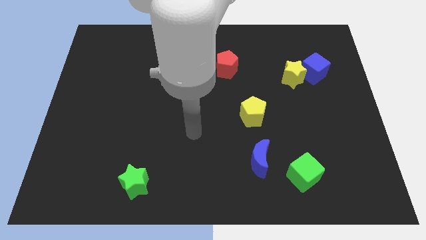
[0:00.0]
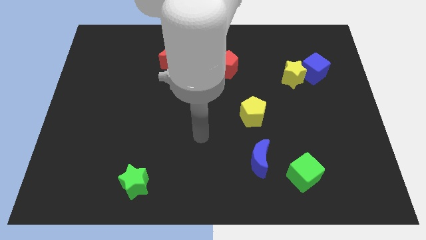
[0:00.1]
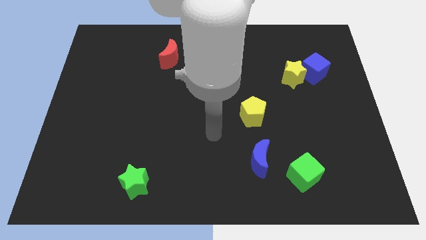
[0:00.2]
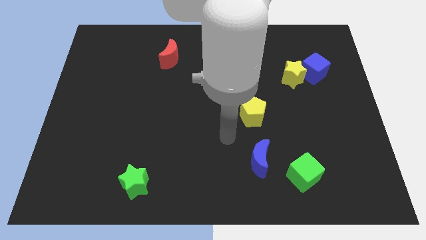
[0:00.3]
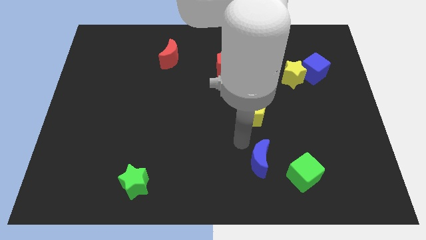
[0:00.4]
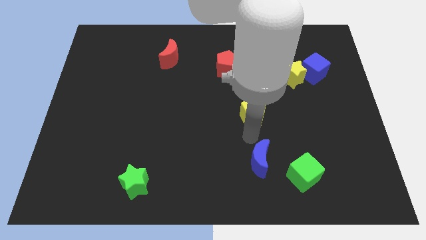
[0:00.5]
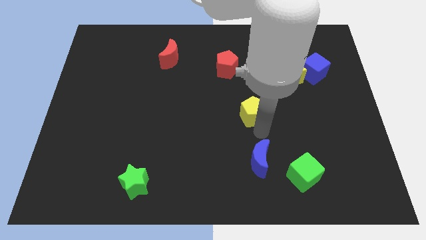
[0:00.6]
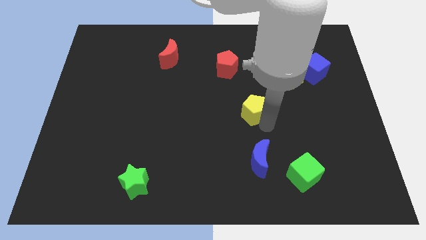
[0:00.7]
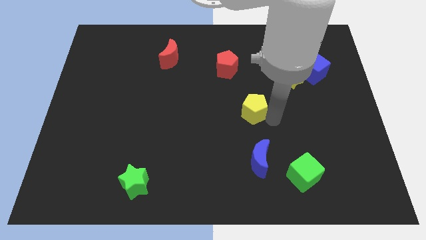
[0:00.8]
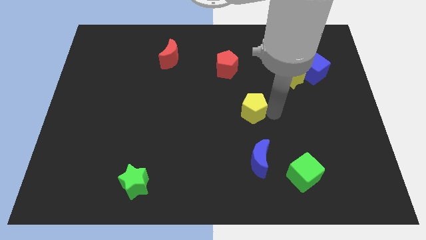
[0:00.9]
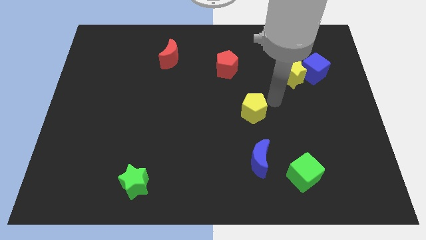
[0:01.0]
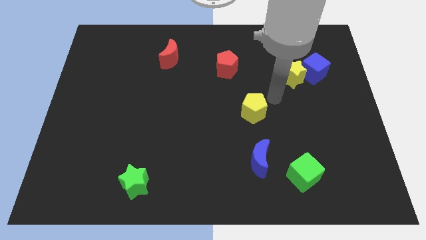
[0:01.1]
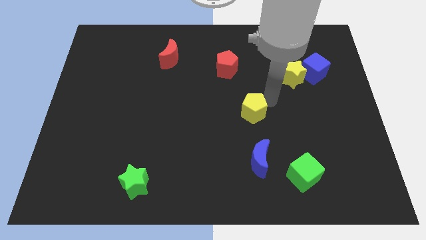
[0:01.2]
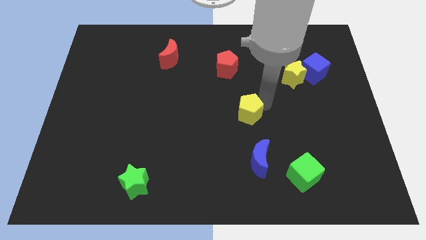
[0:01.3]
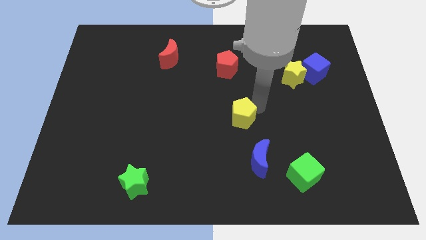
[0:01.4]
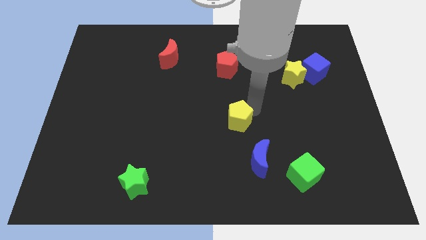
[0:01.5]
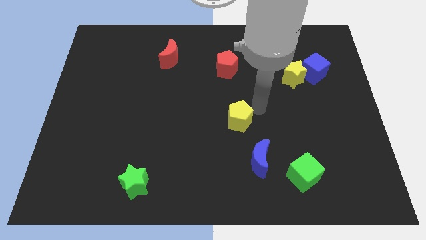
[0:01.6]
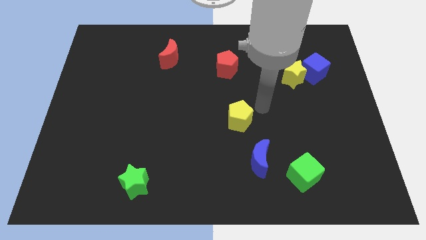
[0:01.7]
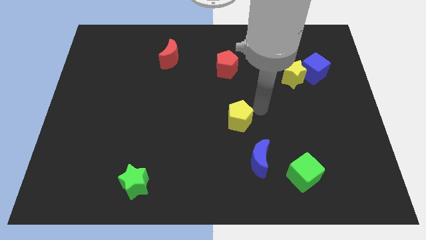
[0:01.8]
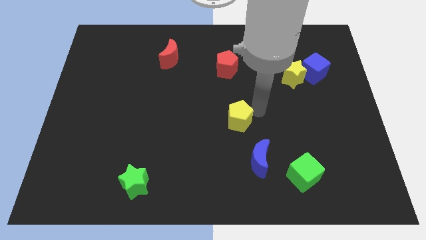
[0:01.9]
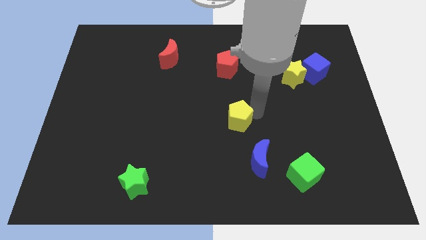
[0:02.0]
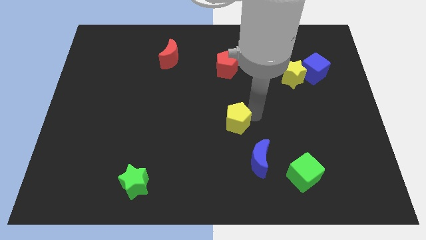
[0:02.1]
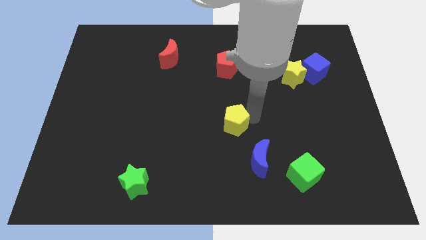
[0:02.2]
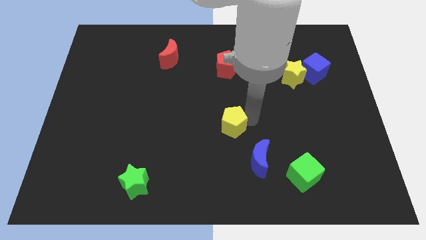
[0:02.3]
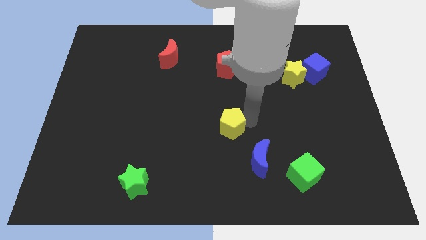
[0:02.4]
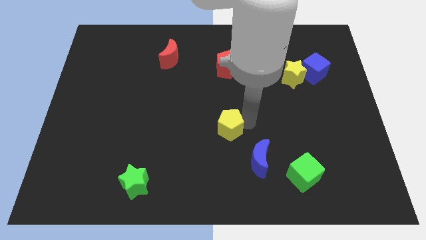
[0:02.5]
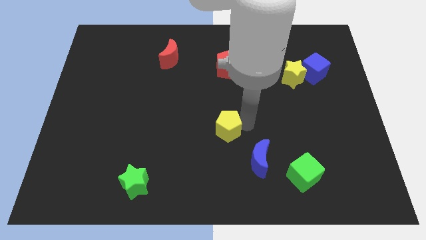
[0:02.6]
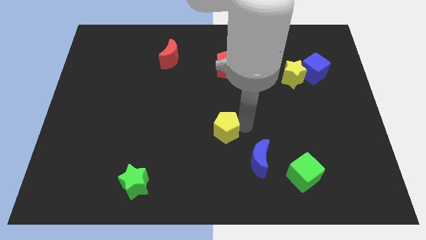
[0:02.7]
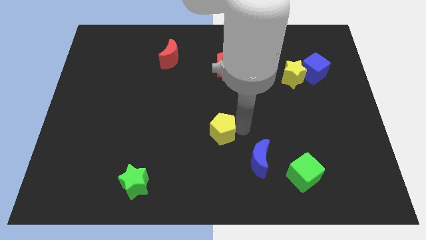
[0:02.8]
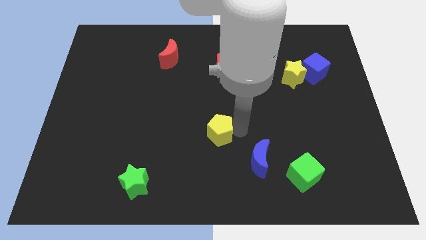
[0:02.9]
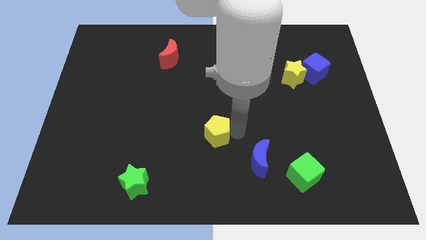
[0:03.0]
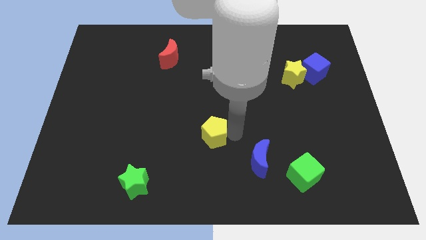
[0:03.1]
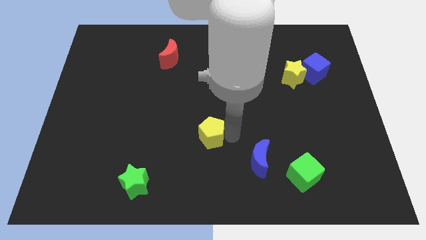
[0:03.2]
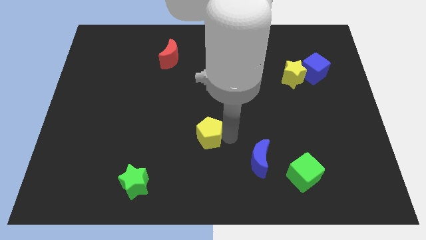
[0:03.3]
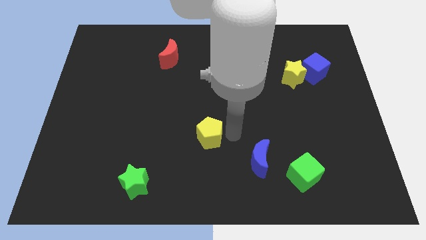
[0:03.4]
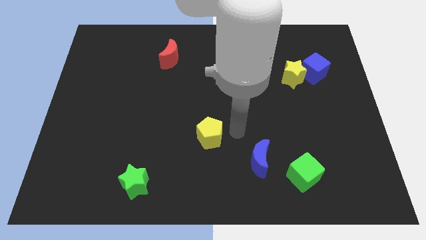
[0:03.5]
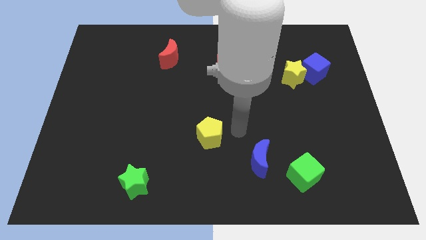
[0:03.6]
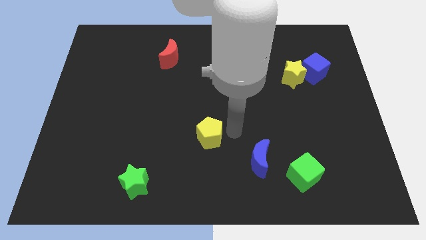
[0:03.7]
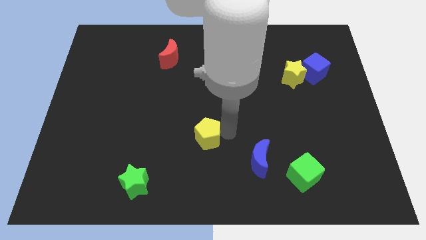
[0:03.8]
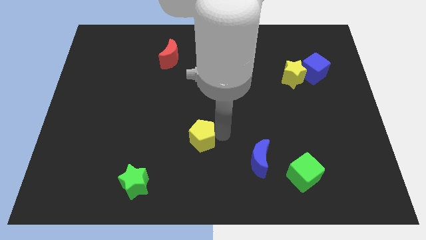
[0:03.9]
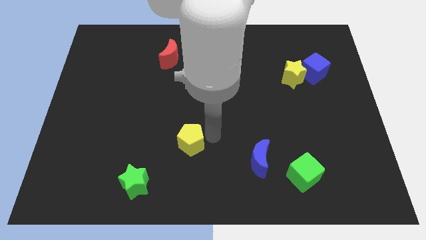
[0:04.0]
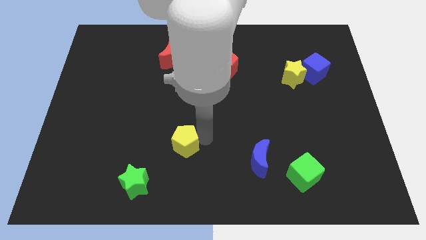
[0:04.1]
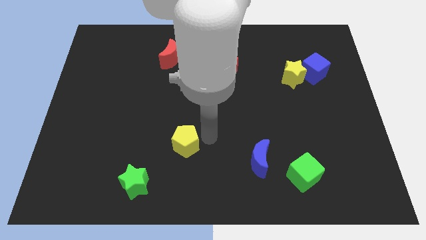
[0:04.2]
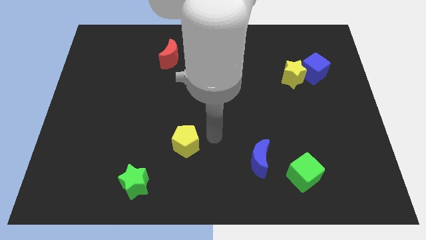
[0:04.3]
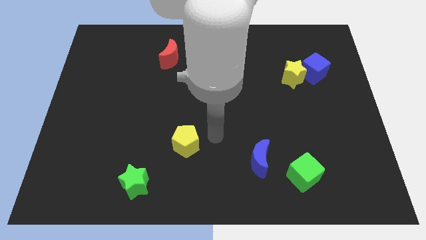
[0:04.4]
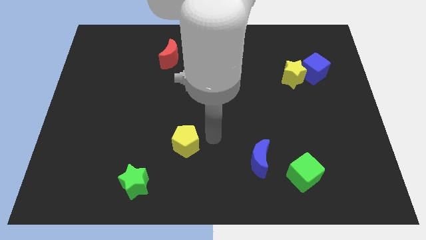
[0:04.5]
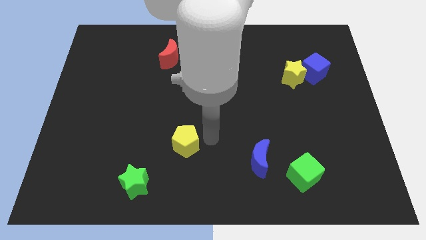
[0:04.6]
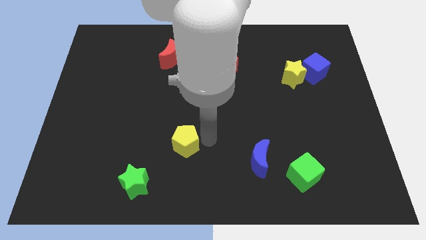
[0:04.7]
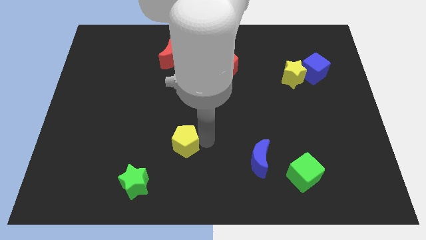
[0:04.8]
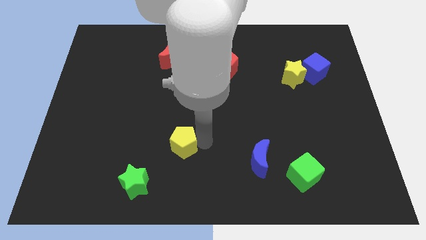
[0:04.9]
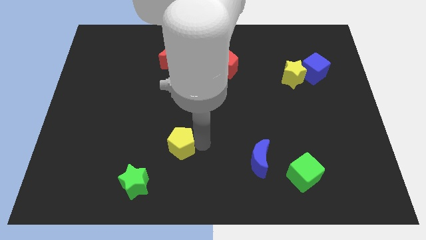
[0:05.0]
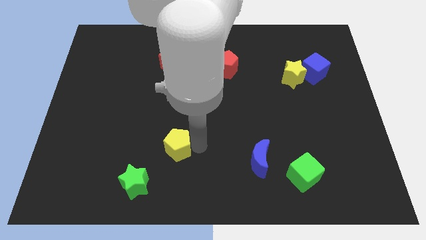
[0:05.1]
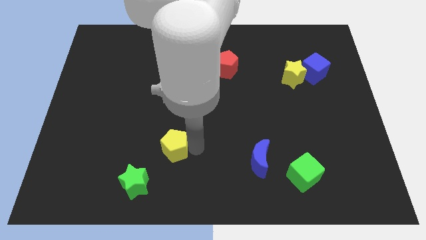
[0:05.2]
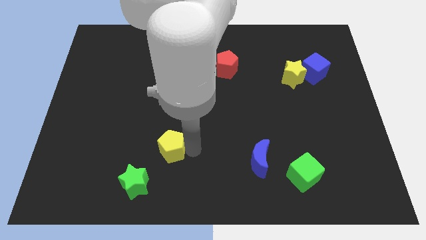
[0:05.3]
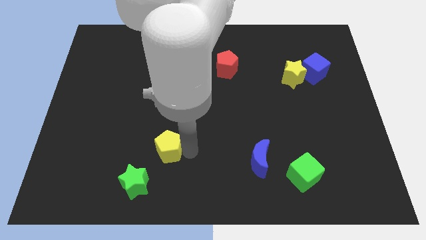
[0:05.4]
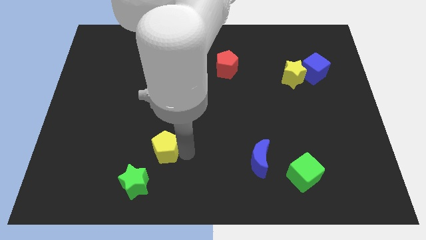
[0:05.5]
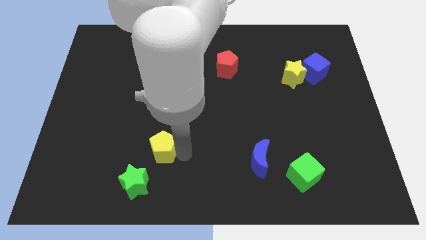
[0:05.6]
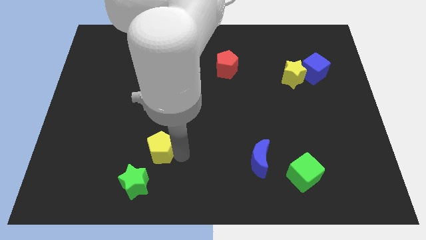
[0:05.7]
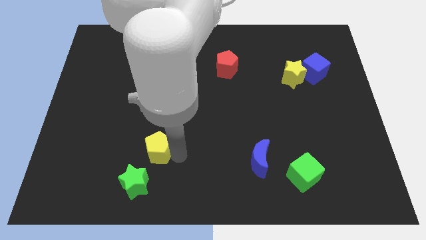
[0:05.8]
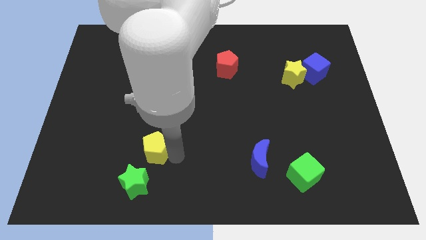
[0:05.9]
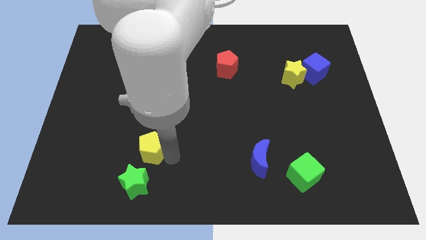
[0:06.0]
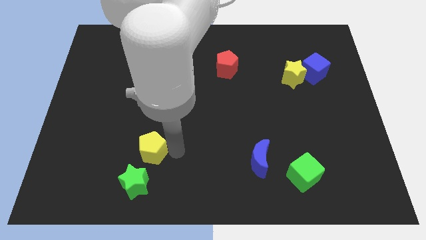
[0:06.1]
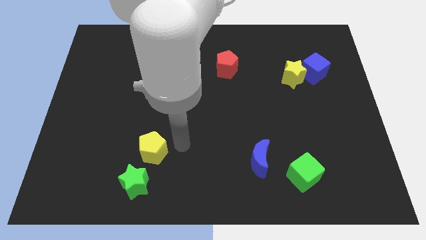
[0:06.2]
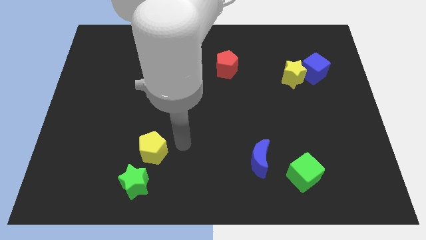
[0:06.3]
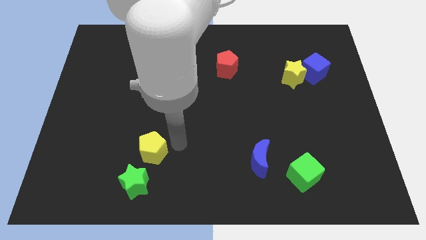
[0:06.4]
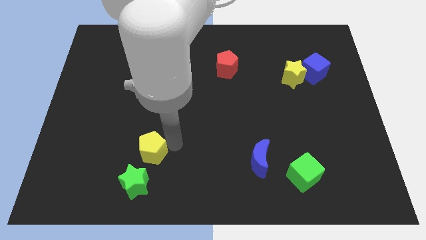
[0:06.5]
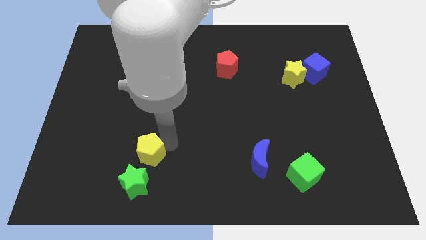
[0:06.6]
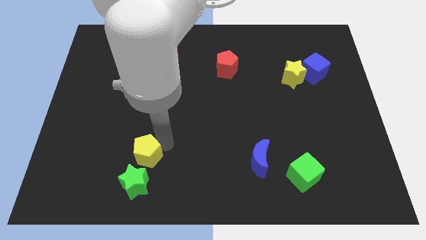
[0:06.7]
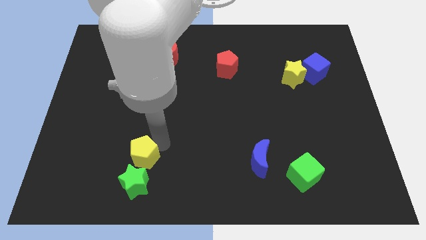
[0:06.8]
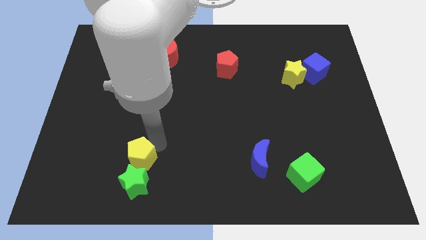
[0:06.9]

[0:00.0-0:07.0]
push the yellow pentagon diagonally up and to the left of the green star

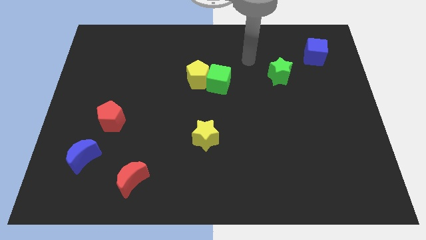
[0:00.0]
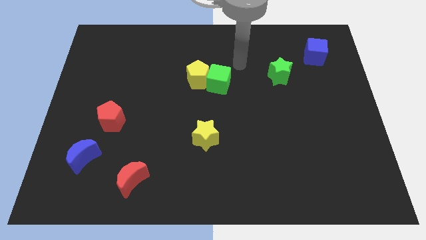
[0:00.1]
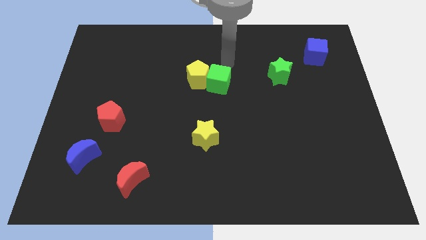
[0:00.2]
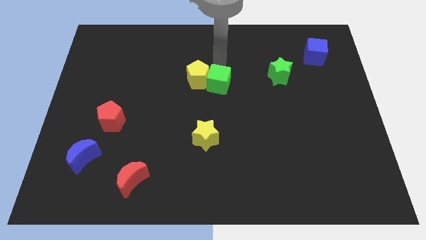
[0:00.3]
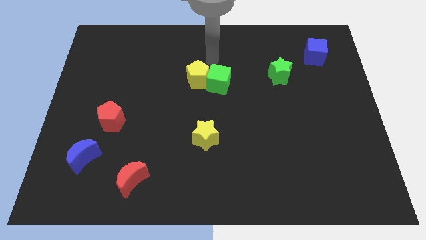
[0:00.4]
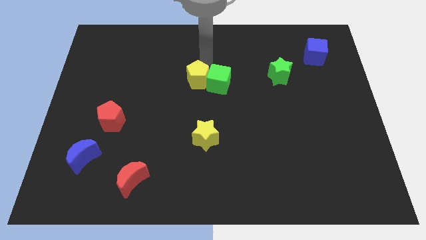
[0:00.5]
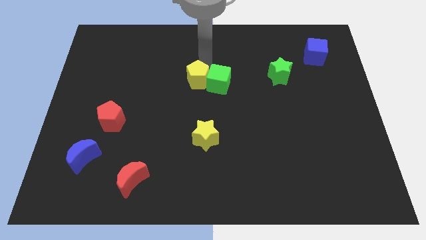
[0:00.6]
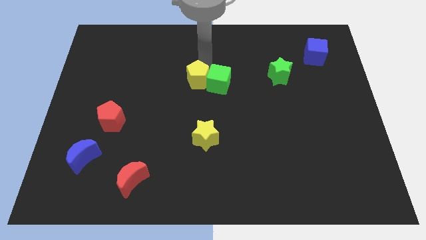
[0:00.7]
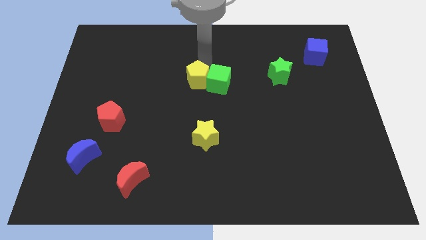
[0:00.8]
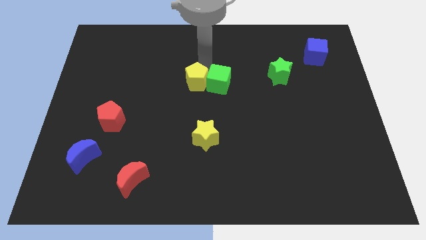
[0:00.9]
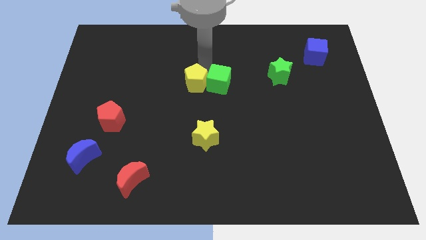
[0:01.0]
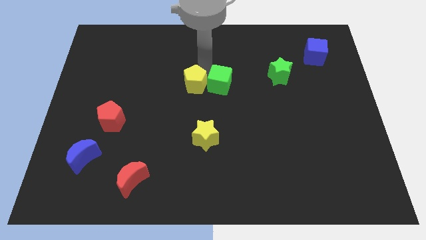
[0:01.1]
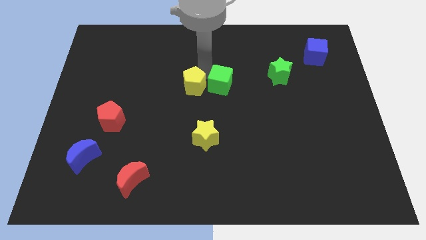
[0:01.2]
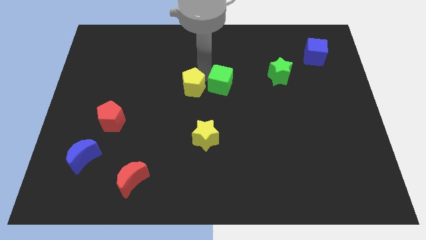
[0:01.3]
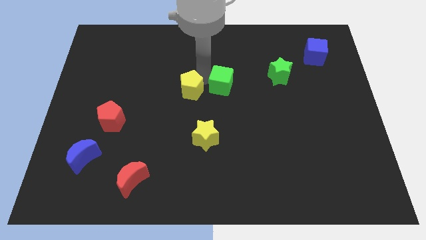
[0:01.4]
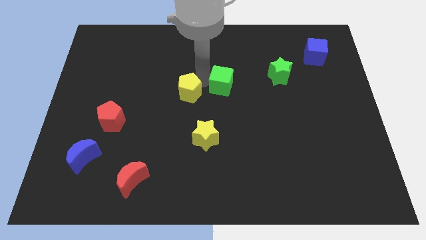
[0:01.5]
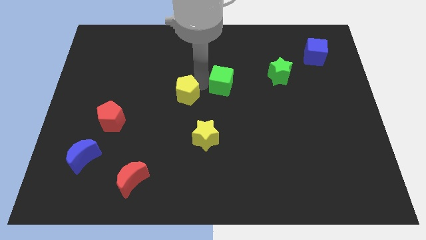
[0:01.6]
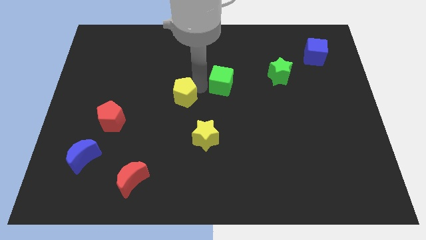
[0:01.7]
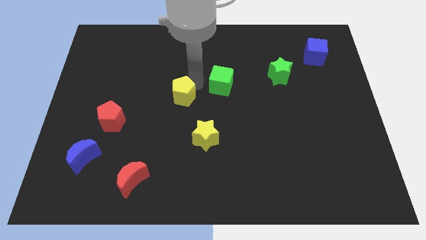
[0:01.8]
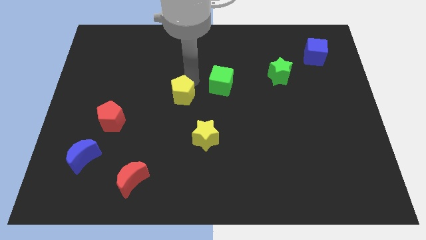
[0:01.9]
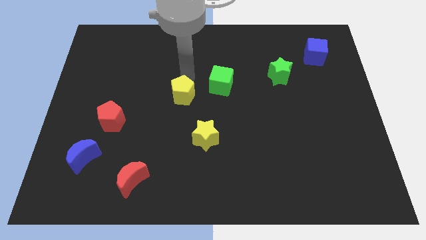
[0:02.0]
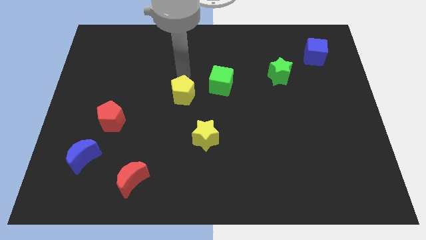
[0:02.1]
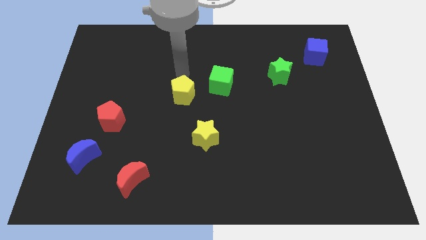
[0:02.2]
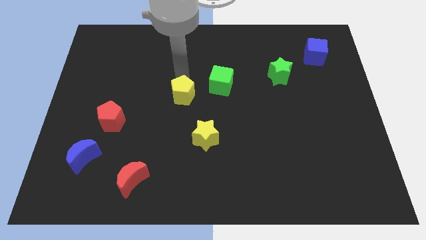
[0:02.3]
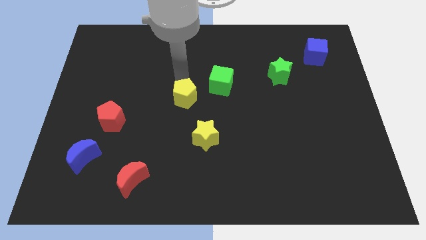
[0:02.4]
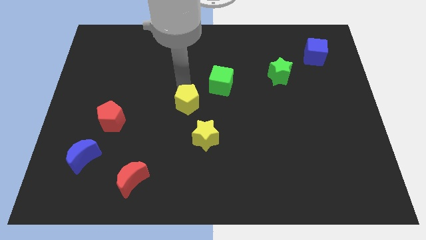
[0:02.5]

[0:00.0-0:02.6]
move the yellow pentagon to the top left side of the yellow star
